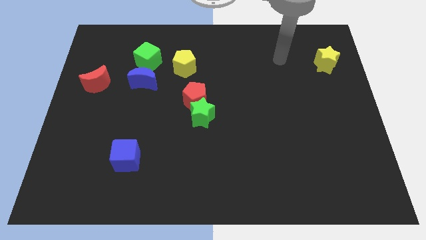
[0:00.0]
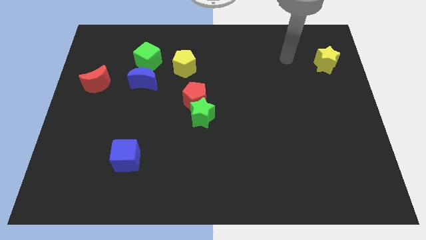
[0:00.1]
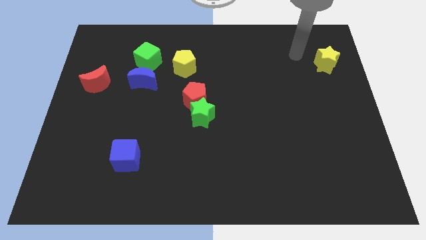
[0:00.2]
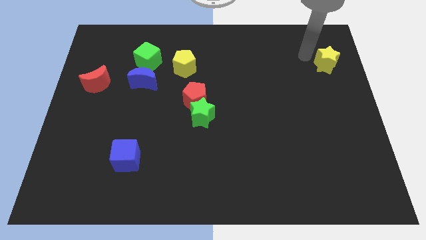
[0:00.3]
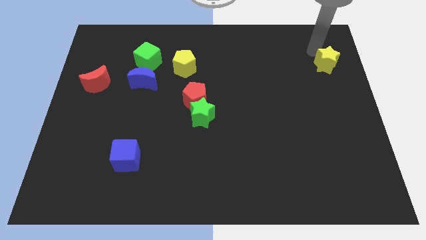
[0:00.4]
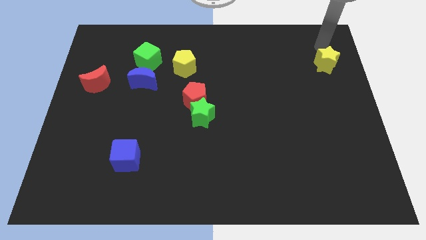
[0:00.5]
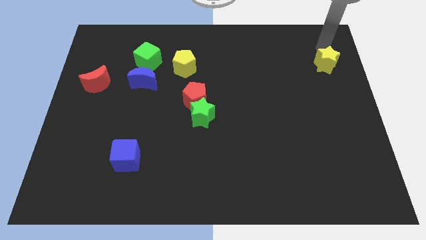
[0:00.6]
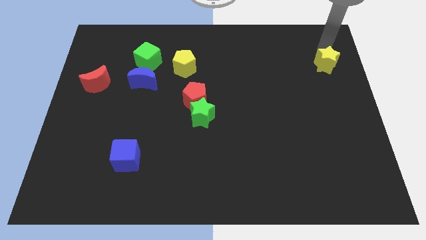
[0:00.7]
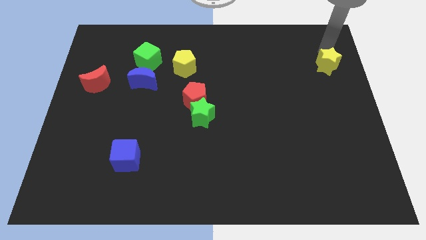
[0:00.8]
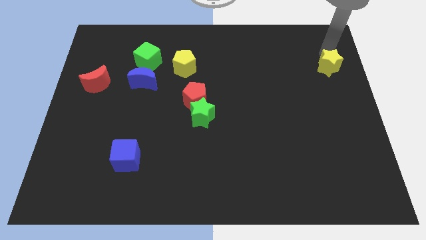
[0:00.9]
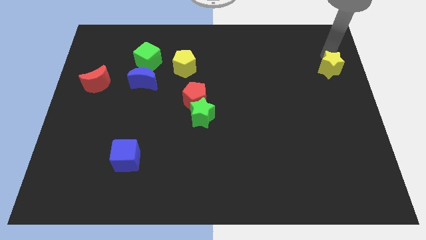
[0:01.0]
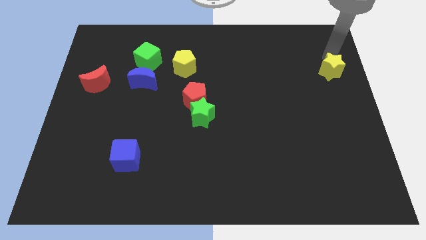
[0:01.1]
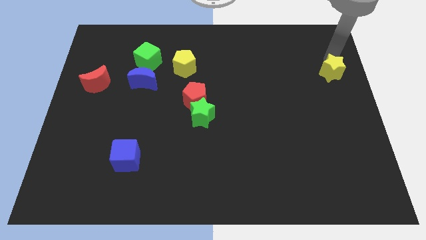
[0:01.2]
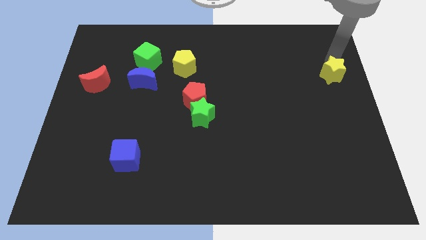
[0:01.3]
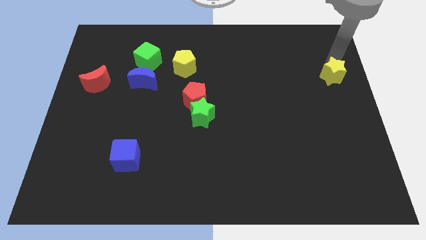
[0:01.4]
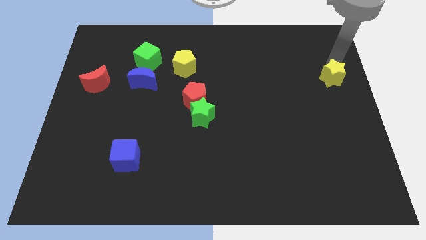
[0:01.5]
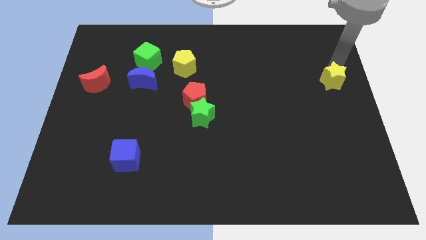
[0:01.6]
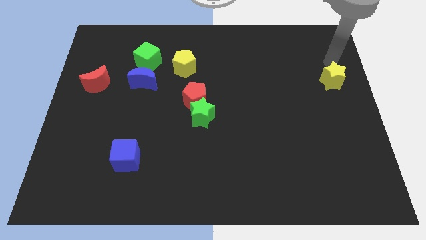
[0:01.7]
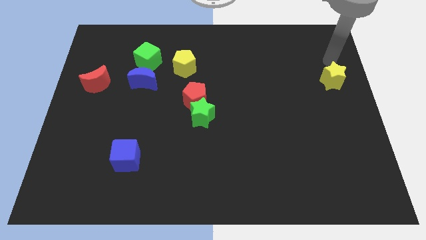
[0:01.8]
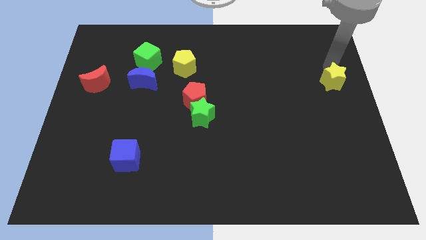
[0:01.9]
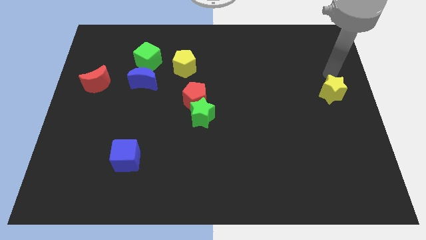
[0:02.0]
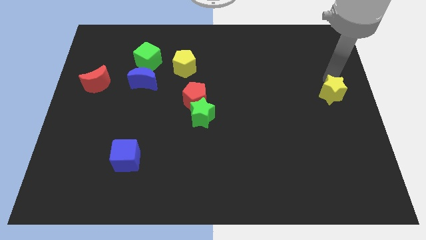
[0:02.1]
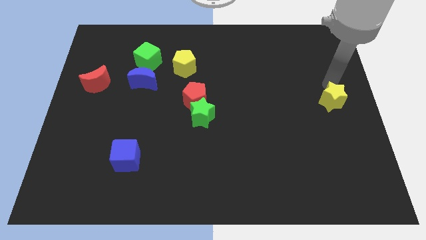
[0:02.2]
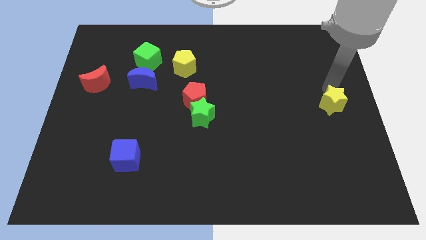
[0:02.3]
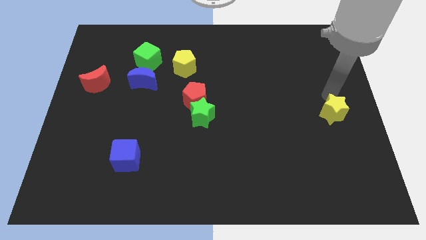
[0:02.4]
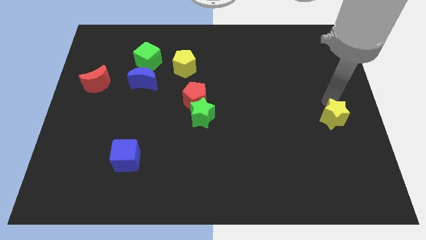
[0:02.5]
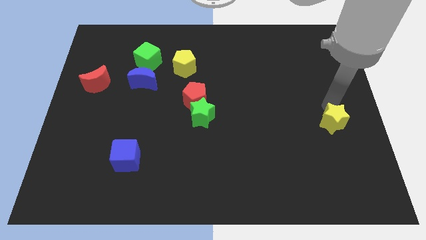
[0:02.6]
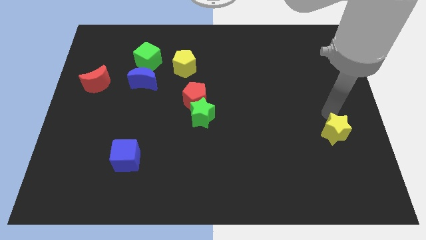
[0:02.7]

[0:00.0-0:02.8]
move the yellow star down

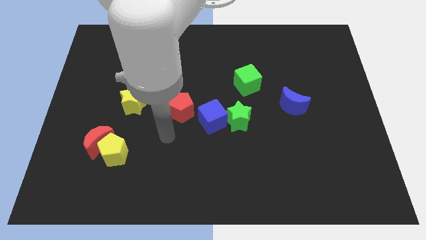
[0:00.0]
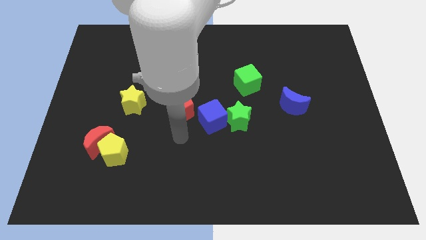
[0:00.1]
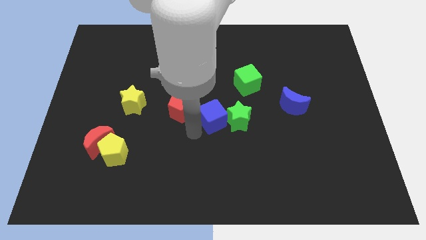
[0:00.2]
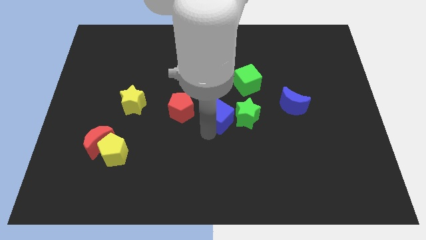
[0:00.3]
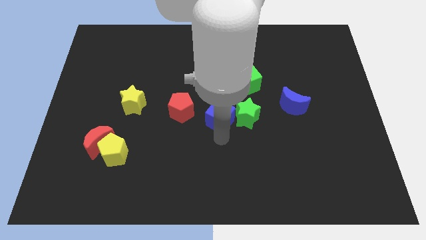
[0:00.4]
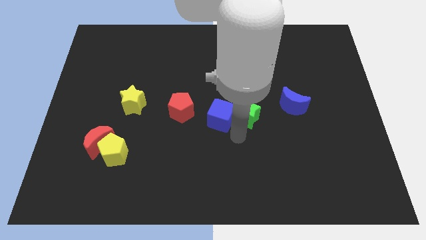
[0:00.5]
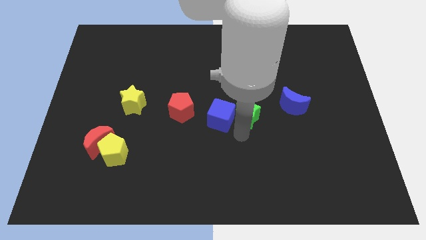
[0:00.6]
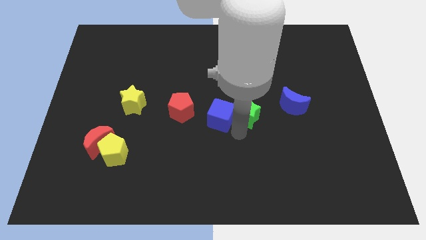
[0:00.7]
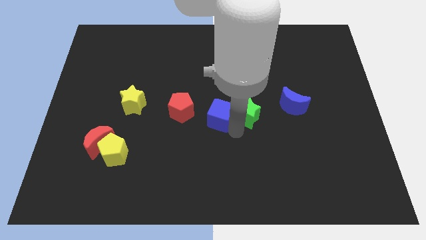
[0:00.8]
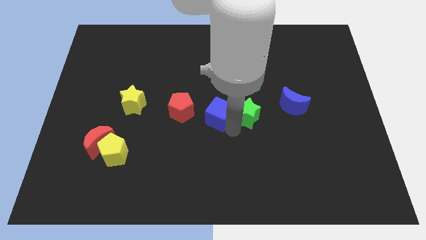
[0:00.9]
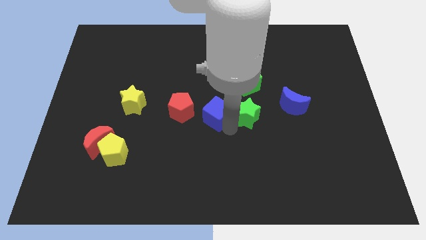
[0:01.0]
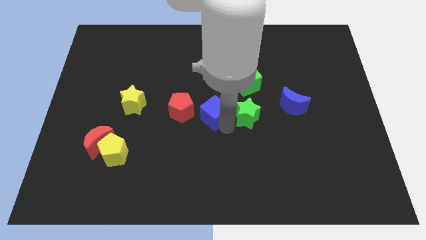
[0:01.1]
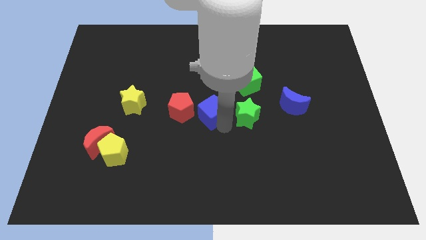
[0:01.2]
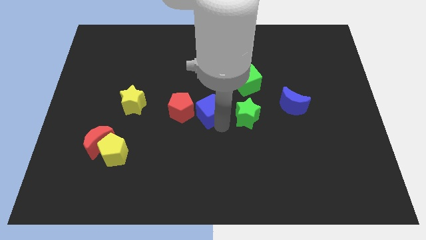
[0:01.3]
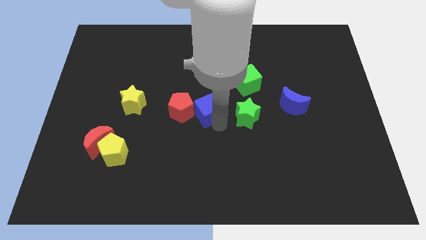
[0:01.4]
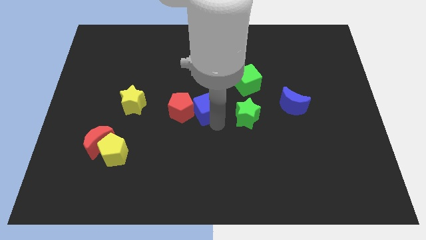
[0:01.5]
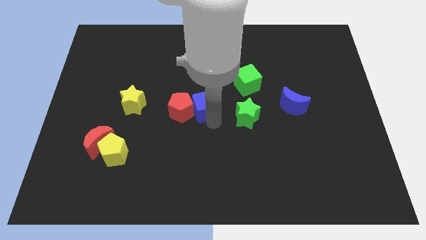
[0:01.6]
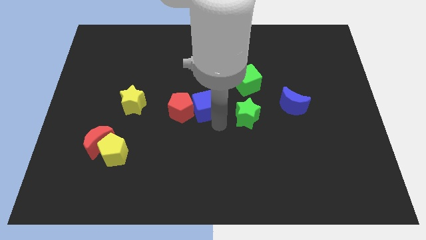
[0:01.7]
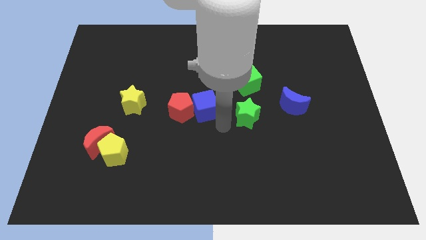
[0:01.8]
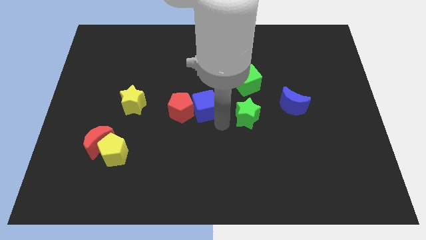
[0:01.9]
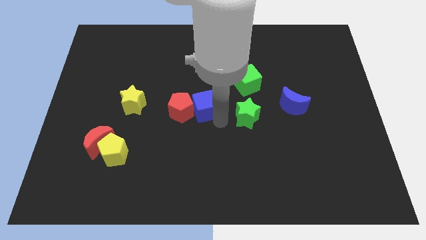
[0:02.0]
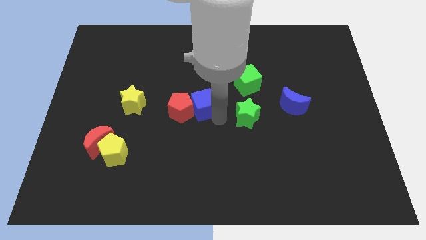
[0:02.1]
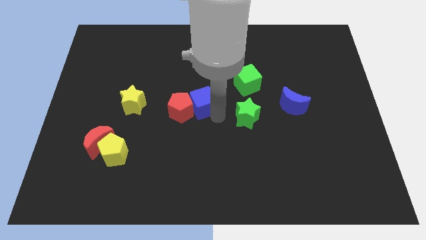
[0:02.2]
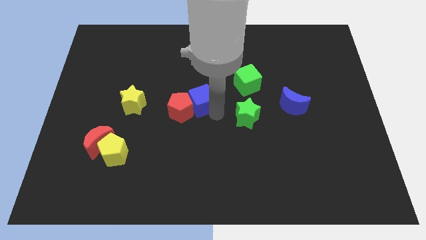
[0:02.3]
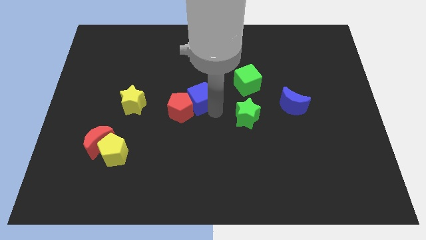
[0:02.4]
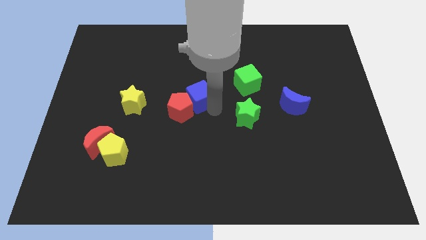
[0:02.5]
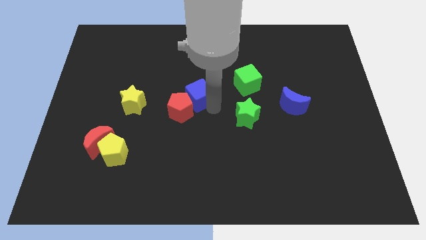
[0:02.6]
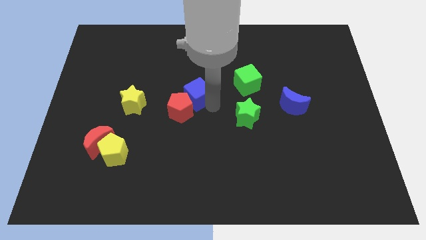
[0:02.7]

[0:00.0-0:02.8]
move the blue cube up and to the left diagonally somewhat

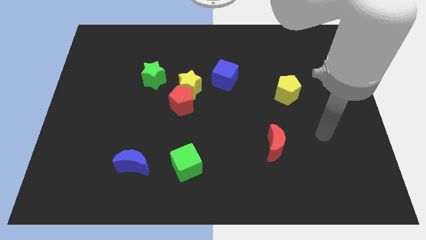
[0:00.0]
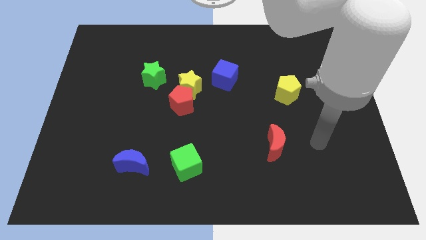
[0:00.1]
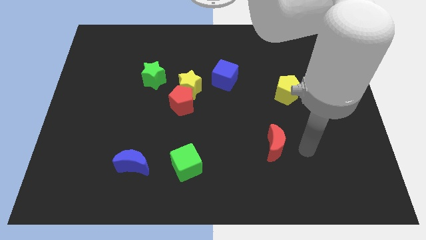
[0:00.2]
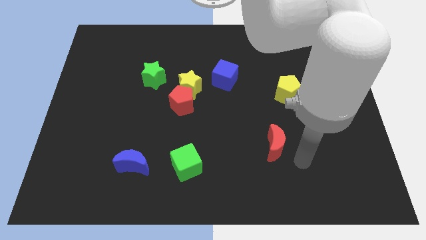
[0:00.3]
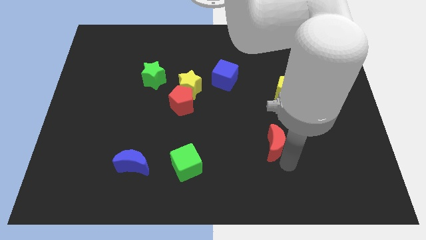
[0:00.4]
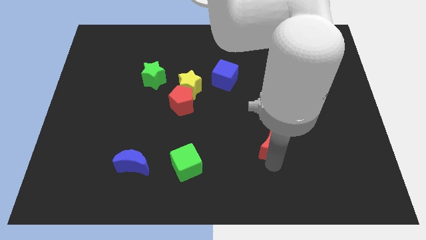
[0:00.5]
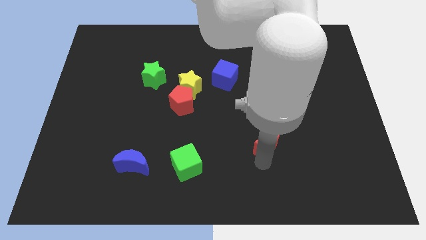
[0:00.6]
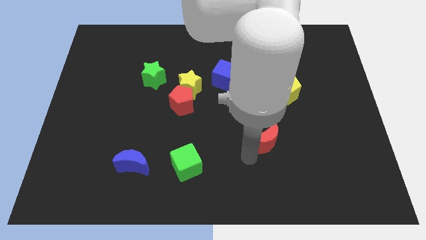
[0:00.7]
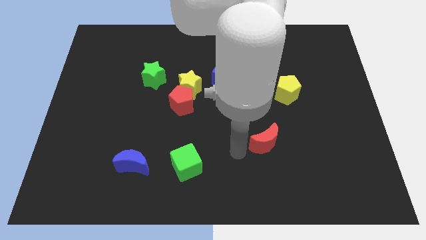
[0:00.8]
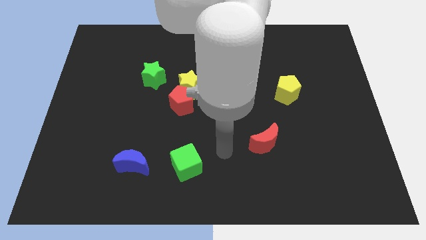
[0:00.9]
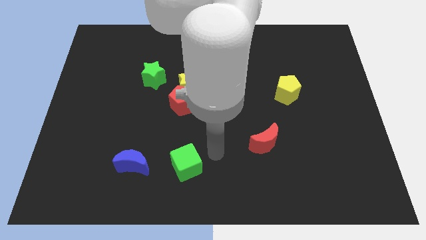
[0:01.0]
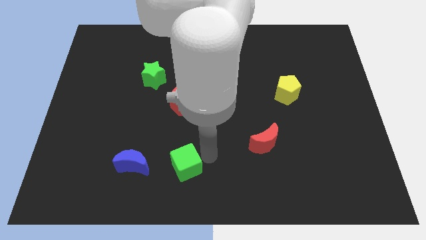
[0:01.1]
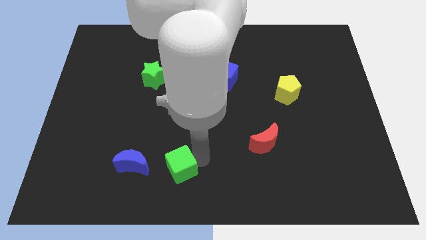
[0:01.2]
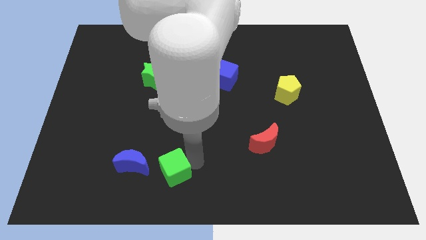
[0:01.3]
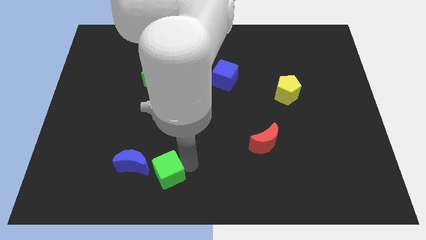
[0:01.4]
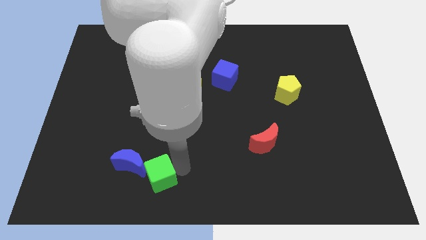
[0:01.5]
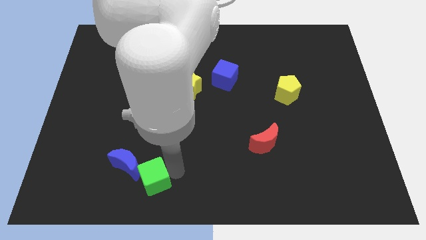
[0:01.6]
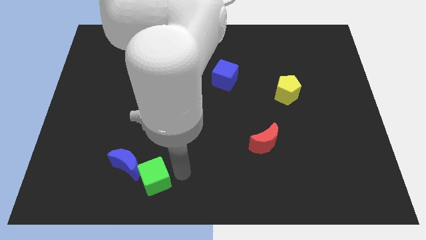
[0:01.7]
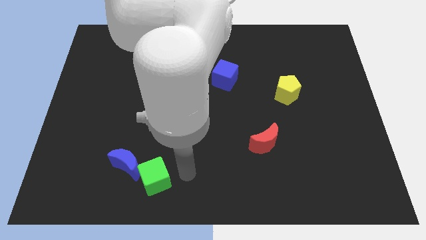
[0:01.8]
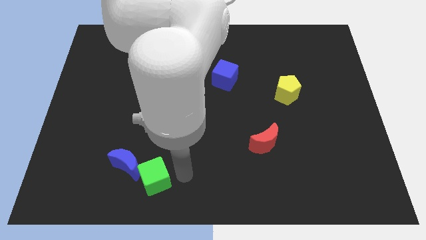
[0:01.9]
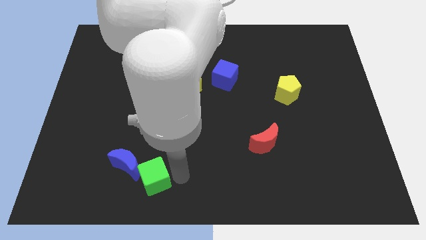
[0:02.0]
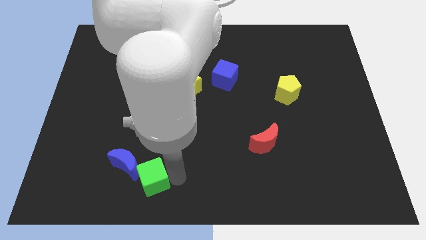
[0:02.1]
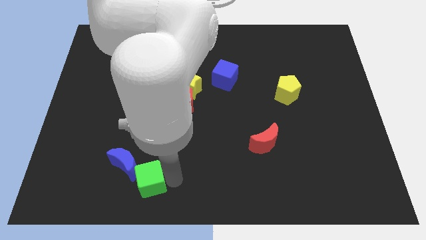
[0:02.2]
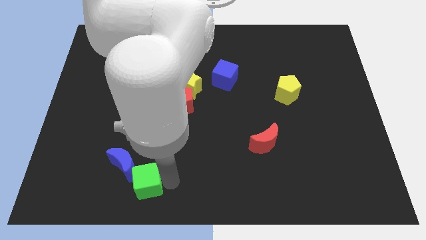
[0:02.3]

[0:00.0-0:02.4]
move the green cube left a little bit
